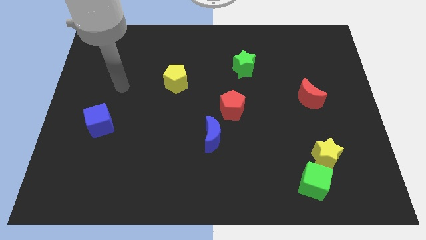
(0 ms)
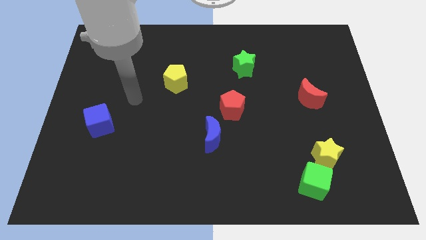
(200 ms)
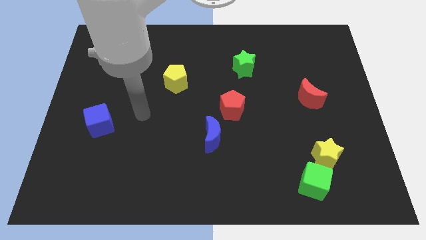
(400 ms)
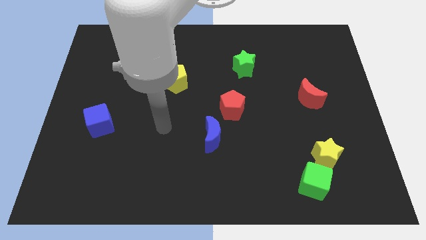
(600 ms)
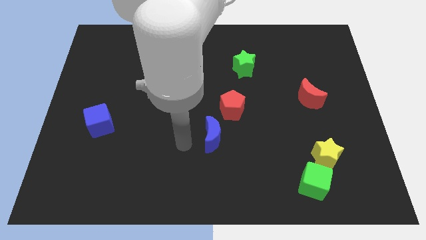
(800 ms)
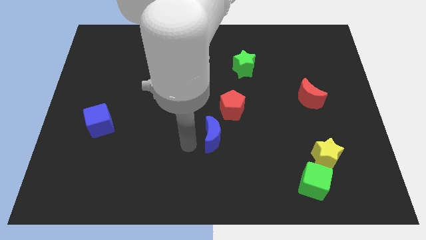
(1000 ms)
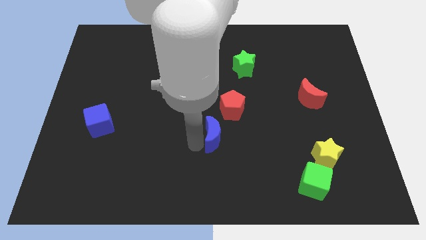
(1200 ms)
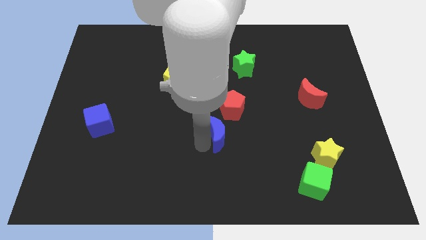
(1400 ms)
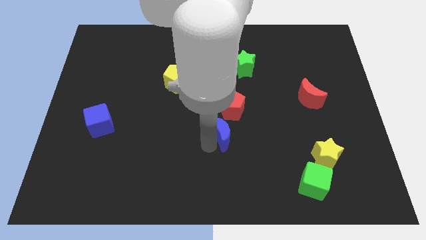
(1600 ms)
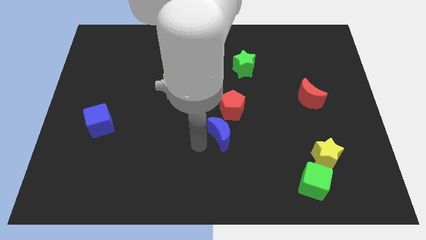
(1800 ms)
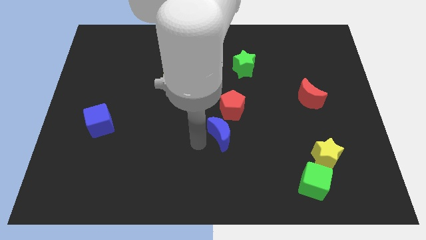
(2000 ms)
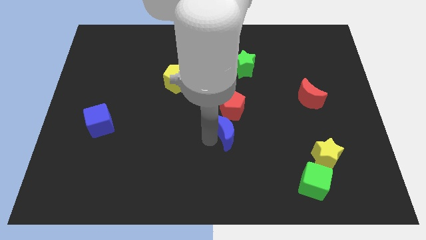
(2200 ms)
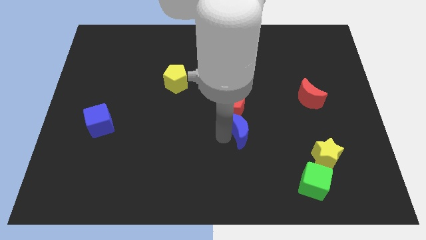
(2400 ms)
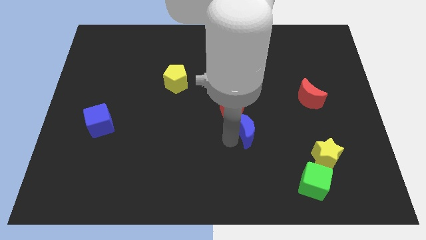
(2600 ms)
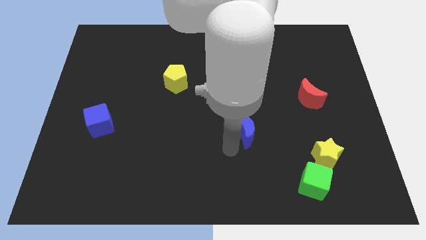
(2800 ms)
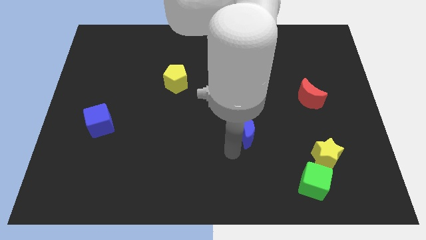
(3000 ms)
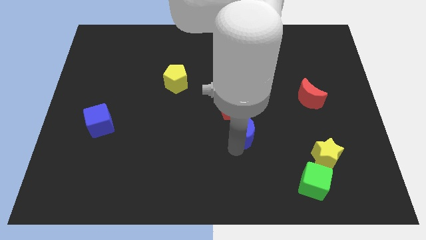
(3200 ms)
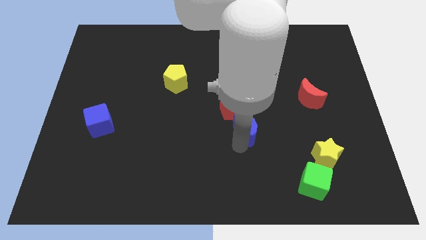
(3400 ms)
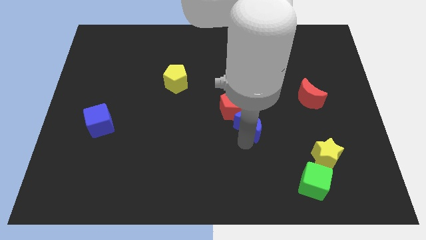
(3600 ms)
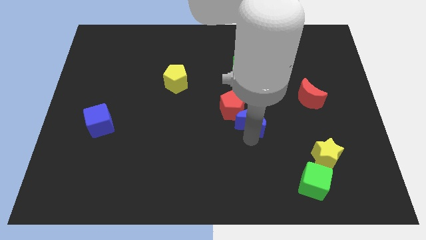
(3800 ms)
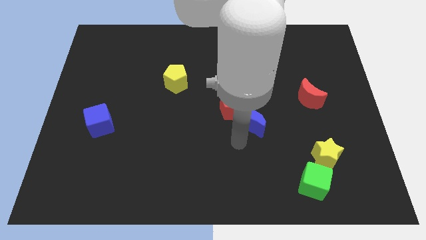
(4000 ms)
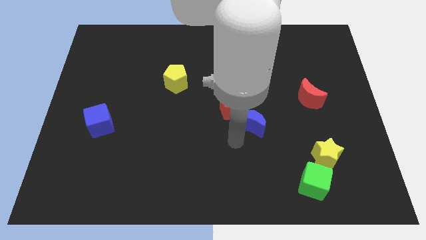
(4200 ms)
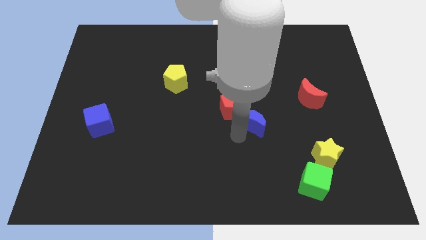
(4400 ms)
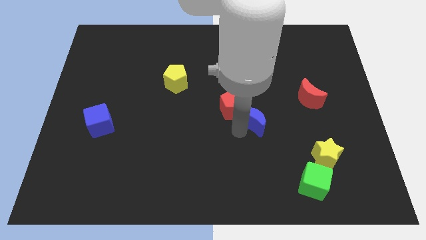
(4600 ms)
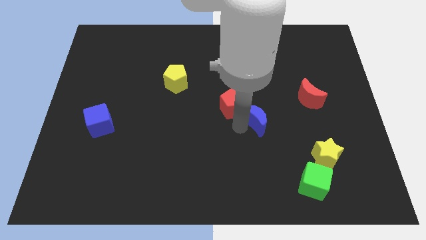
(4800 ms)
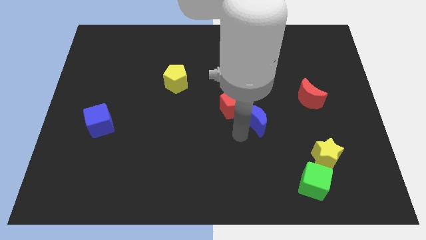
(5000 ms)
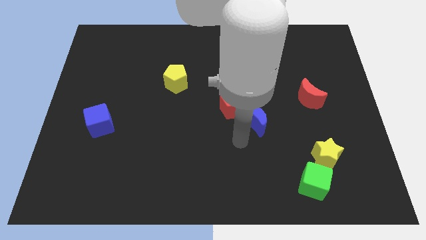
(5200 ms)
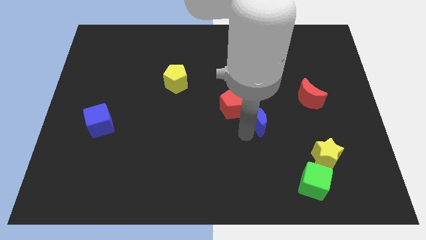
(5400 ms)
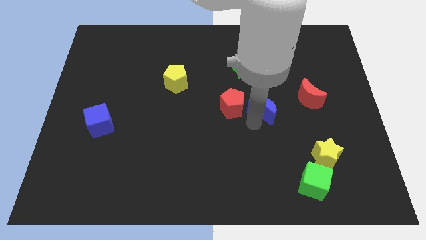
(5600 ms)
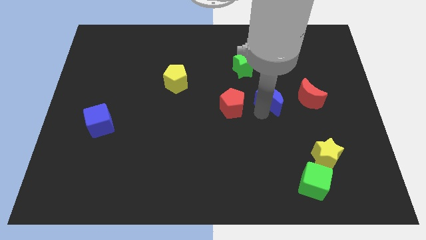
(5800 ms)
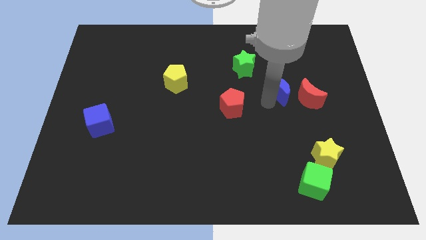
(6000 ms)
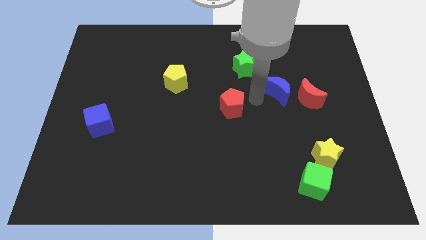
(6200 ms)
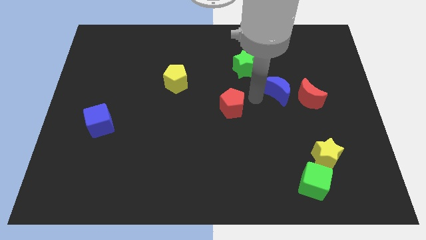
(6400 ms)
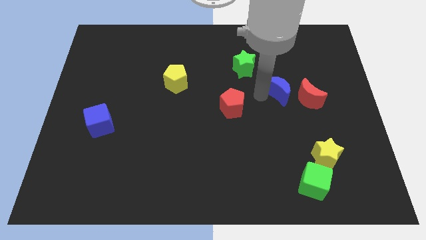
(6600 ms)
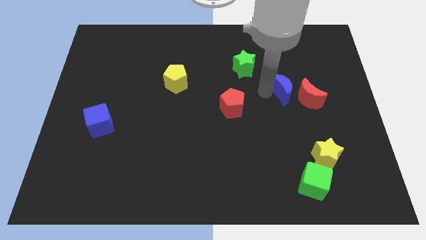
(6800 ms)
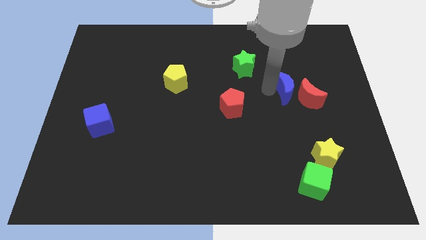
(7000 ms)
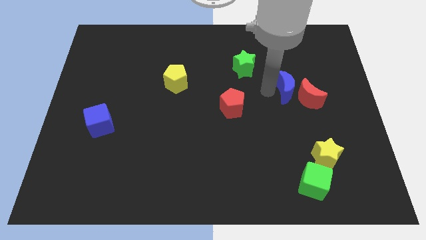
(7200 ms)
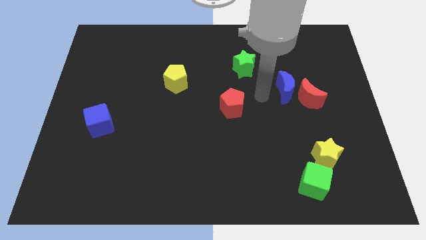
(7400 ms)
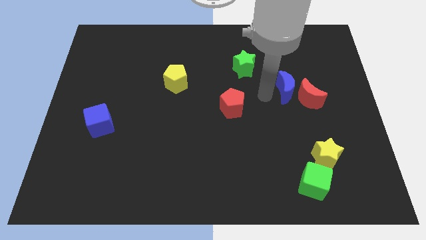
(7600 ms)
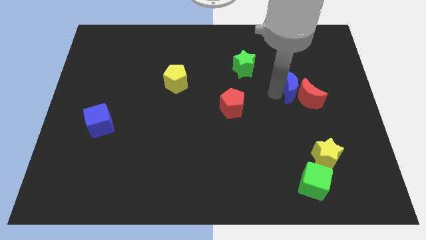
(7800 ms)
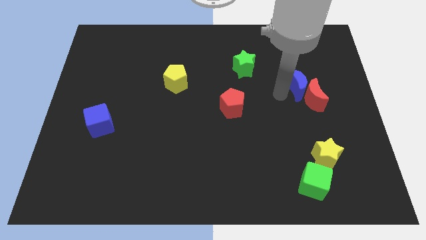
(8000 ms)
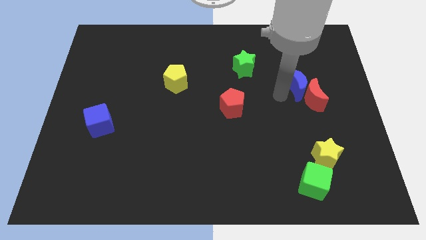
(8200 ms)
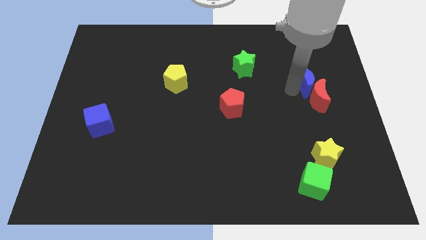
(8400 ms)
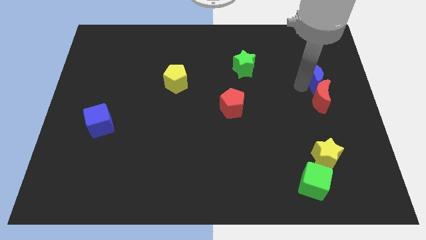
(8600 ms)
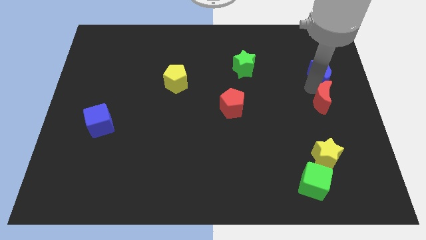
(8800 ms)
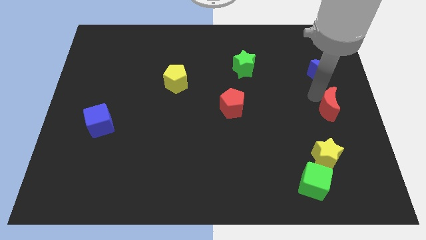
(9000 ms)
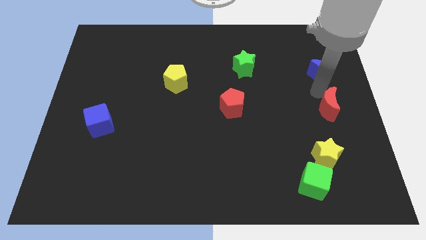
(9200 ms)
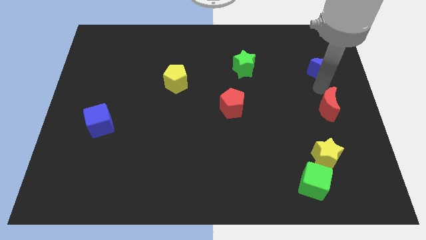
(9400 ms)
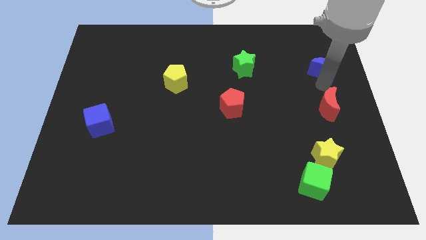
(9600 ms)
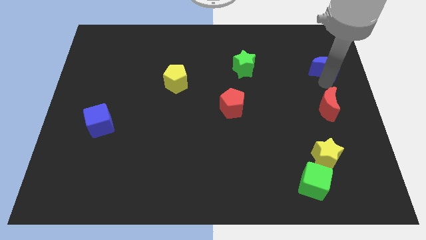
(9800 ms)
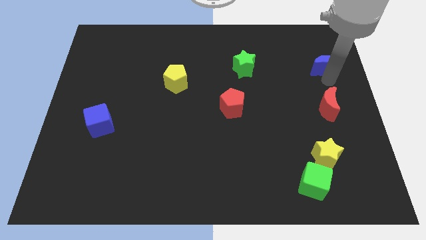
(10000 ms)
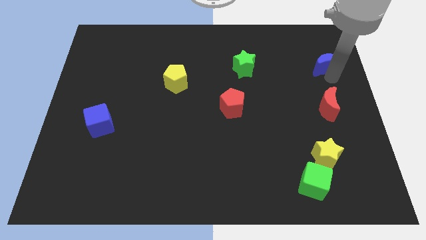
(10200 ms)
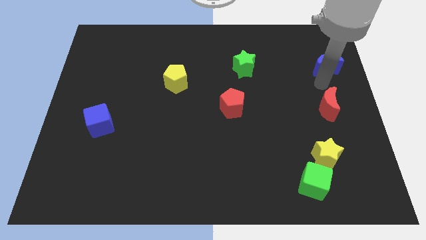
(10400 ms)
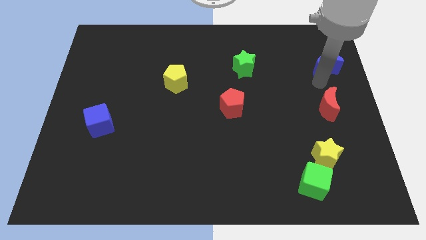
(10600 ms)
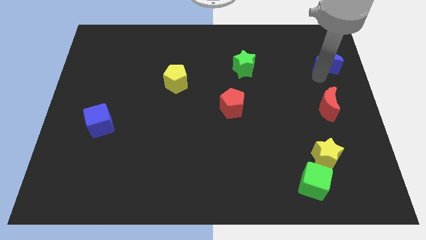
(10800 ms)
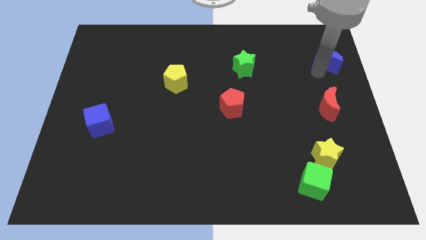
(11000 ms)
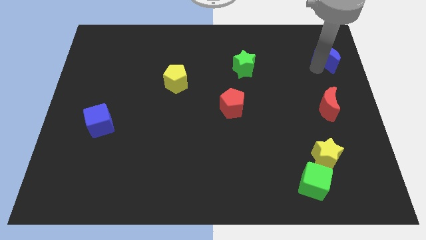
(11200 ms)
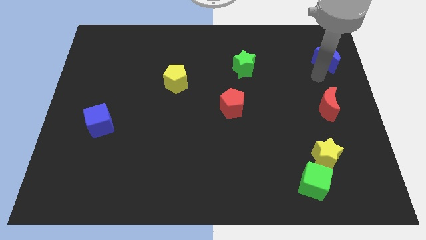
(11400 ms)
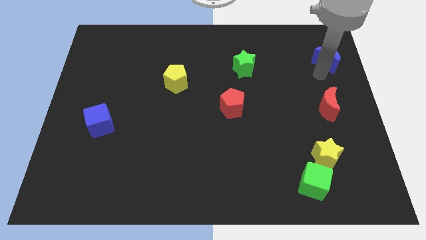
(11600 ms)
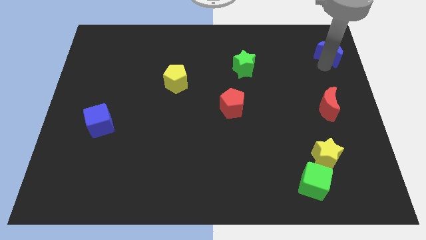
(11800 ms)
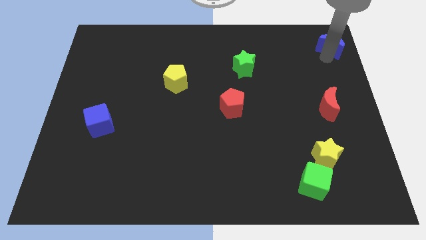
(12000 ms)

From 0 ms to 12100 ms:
push the blue moon to the upper right corner
